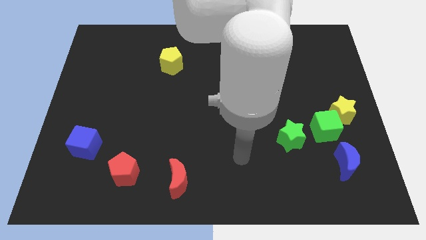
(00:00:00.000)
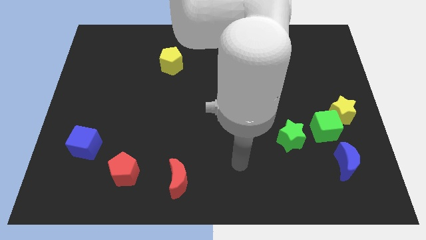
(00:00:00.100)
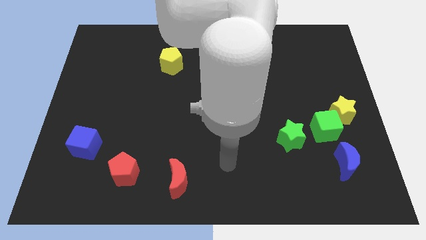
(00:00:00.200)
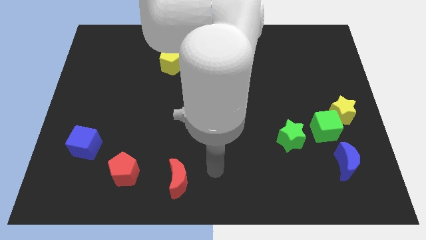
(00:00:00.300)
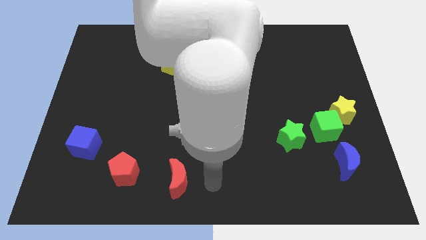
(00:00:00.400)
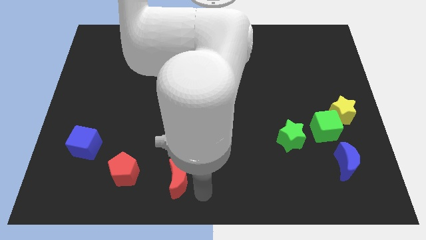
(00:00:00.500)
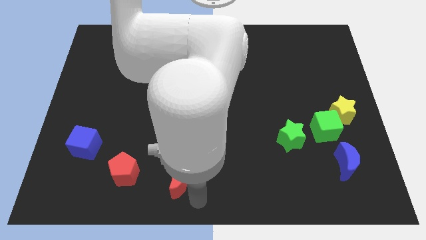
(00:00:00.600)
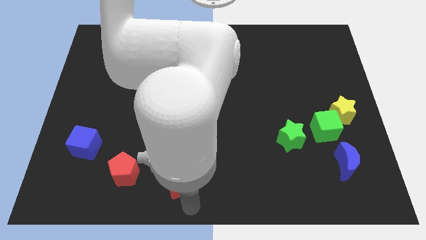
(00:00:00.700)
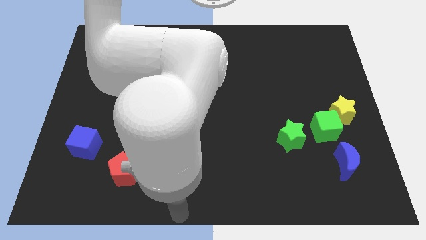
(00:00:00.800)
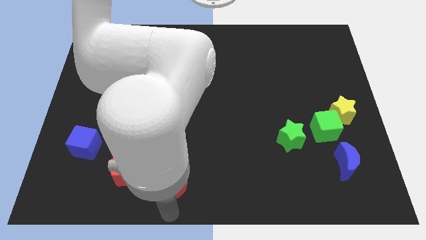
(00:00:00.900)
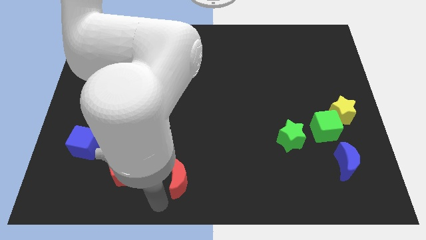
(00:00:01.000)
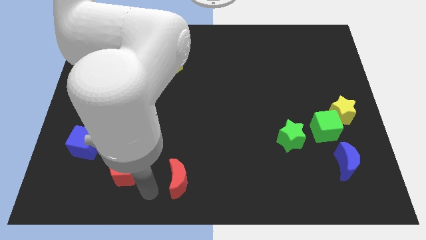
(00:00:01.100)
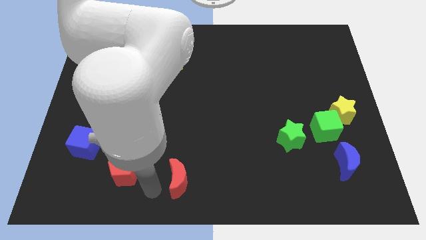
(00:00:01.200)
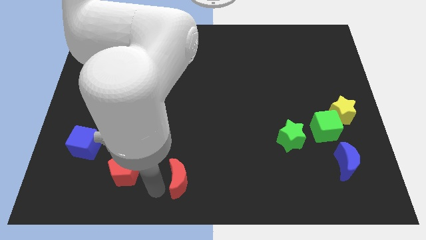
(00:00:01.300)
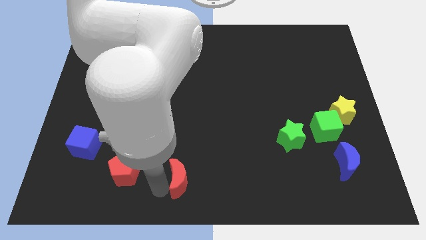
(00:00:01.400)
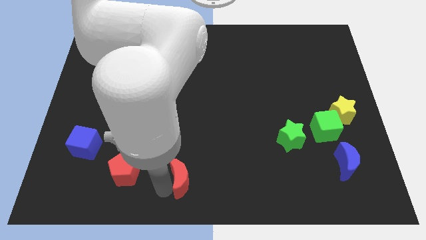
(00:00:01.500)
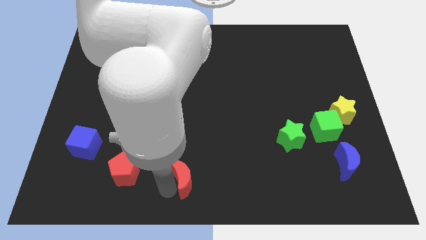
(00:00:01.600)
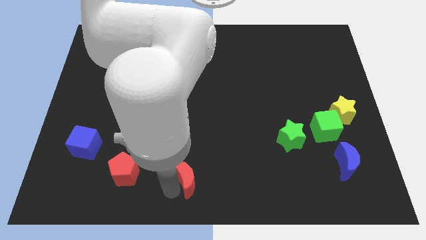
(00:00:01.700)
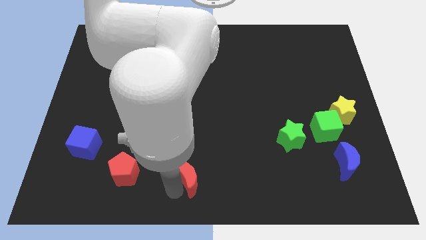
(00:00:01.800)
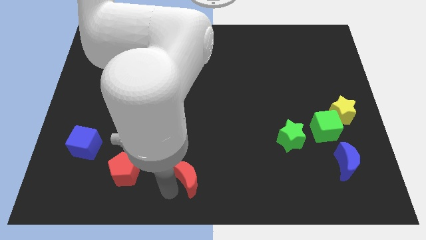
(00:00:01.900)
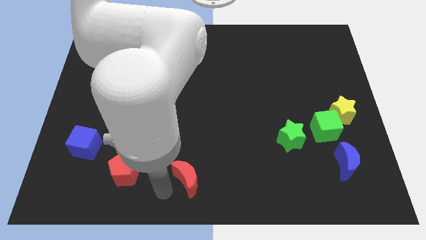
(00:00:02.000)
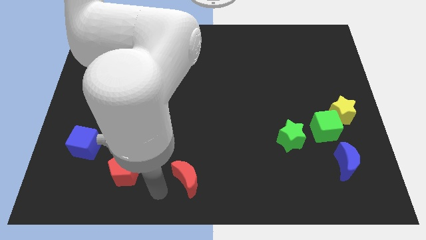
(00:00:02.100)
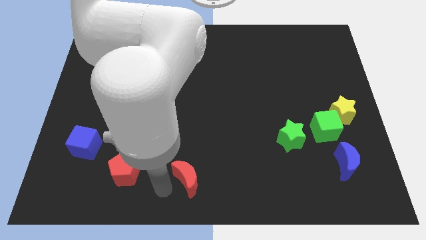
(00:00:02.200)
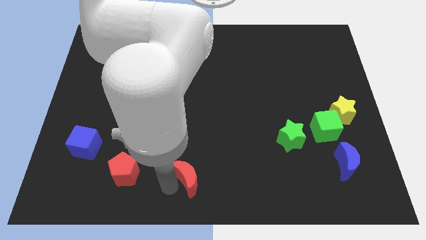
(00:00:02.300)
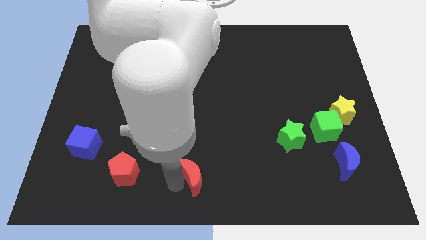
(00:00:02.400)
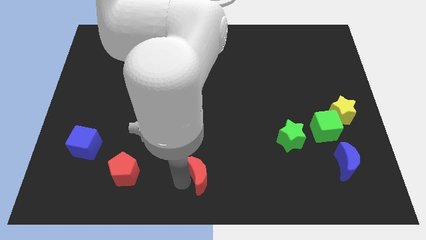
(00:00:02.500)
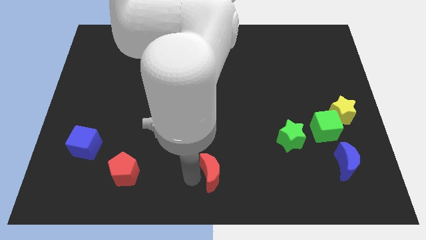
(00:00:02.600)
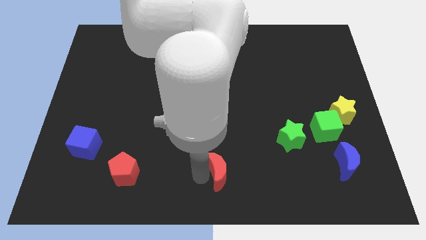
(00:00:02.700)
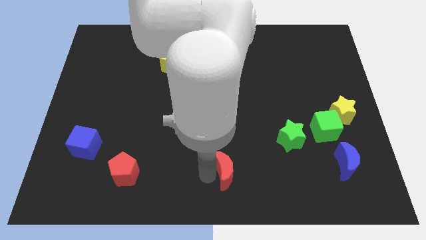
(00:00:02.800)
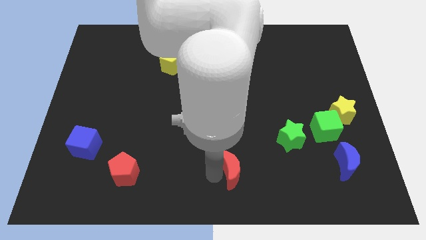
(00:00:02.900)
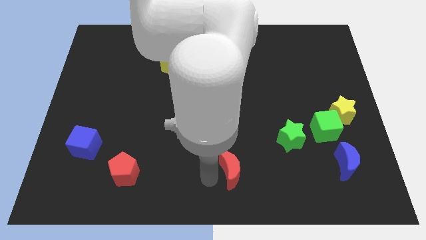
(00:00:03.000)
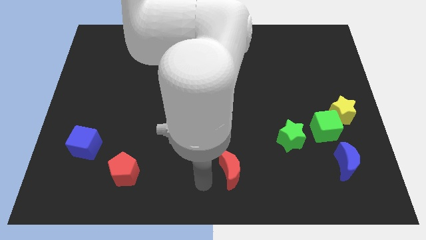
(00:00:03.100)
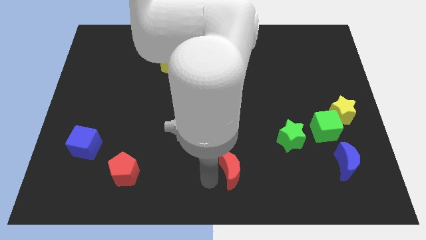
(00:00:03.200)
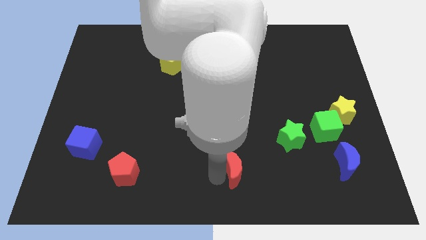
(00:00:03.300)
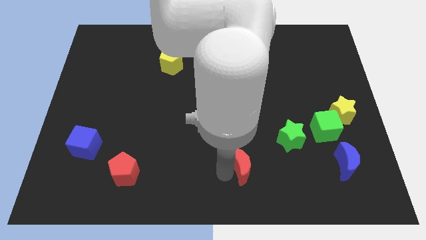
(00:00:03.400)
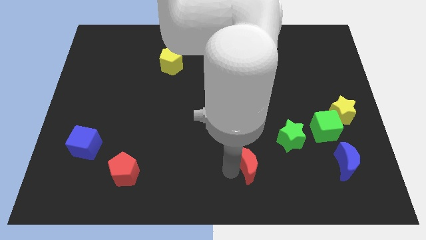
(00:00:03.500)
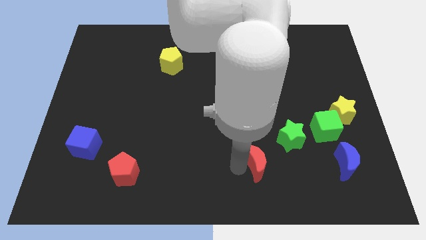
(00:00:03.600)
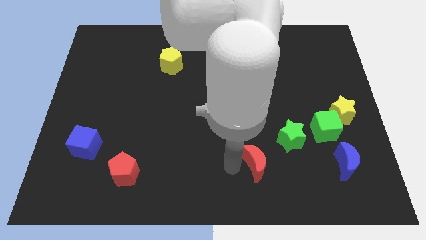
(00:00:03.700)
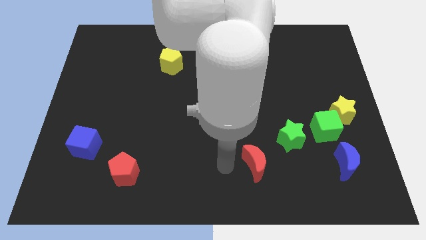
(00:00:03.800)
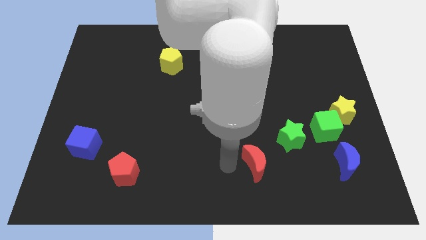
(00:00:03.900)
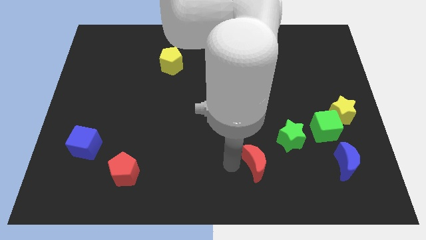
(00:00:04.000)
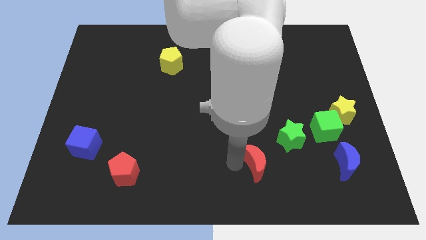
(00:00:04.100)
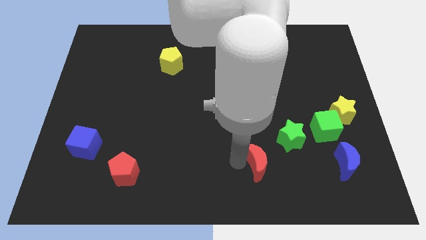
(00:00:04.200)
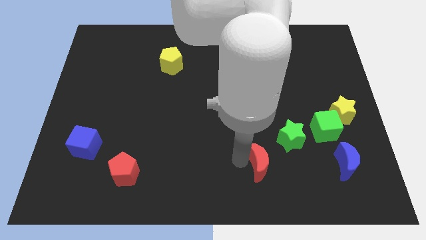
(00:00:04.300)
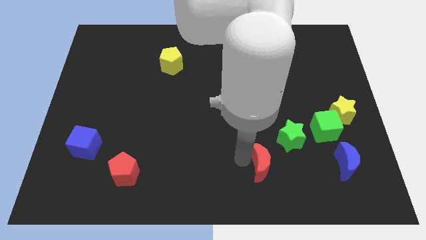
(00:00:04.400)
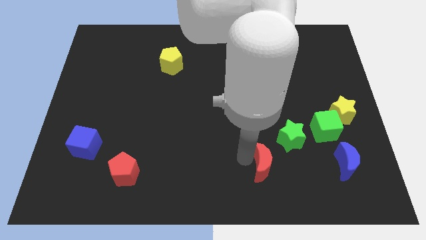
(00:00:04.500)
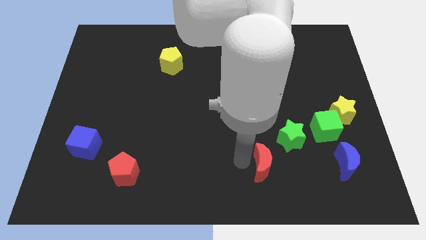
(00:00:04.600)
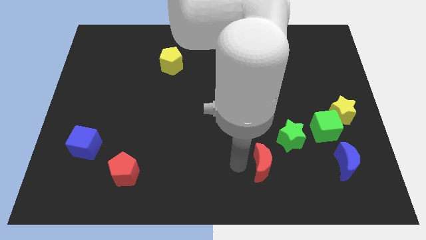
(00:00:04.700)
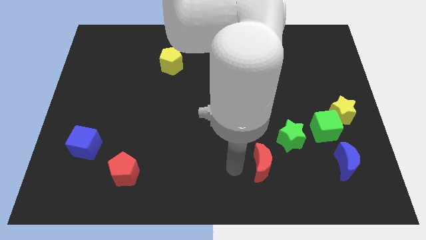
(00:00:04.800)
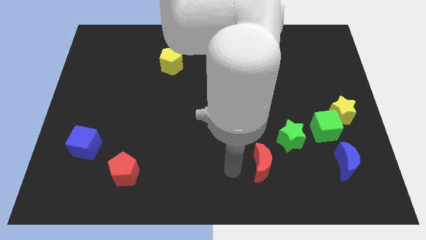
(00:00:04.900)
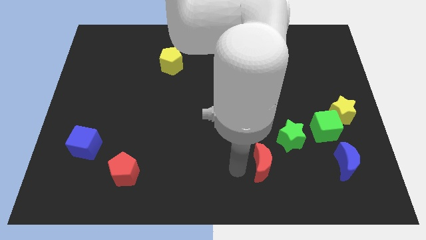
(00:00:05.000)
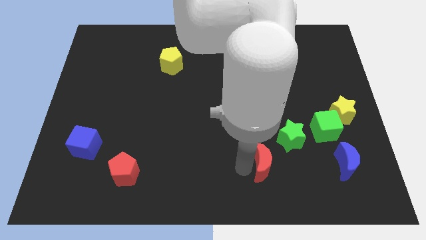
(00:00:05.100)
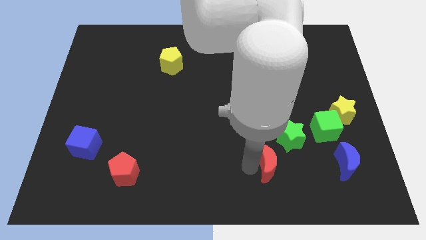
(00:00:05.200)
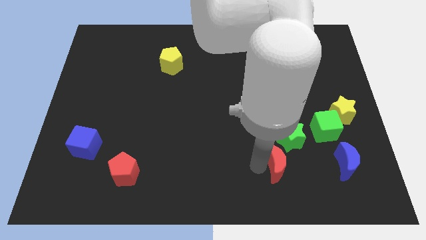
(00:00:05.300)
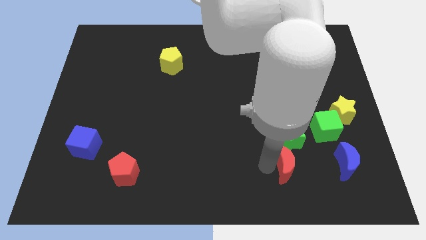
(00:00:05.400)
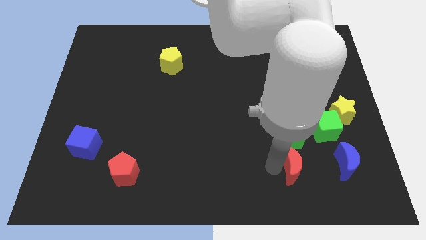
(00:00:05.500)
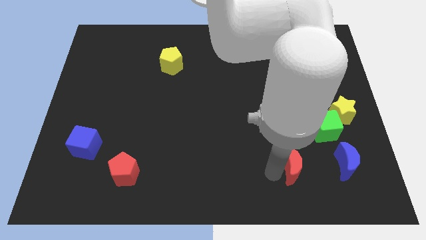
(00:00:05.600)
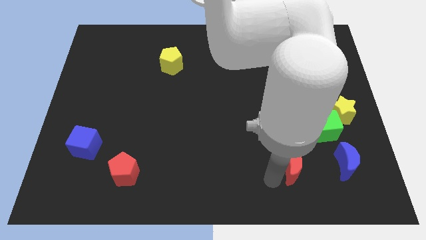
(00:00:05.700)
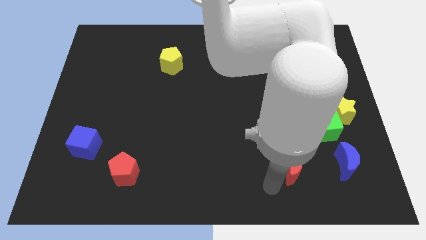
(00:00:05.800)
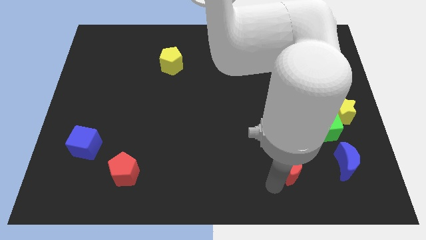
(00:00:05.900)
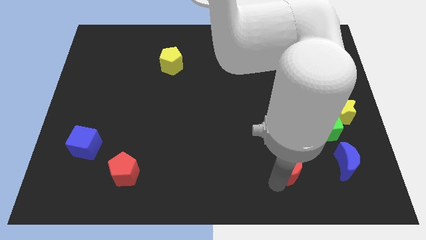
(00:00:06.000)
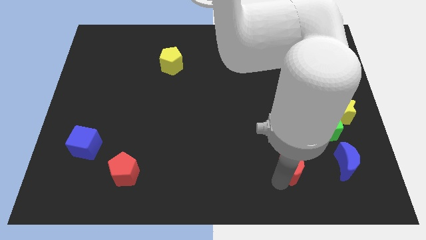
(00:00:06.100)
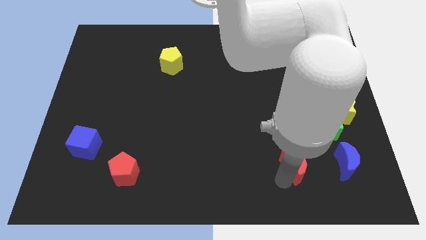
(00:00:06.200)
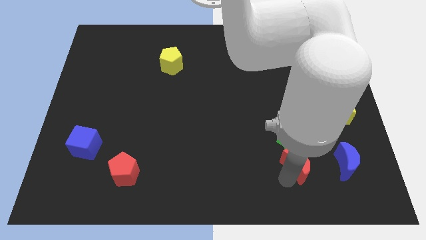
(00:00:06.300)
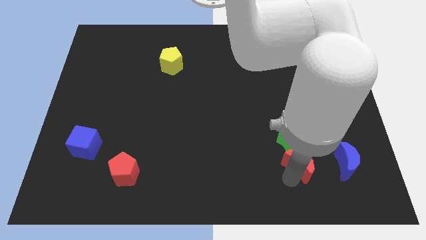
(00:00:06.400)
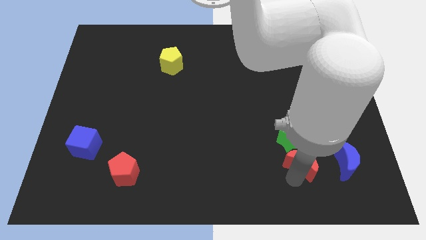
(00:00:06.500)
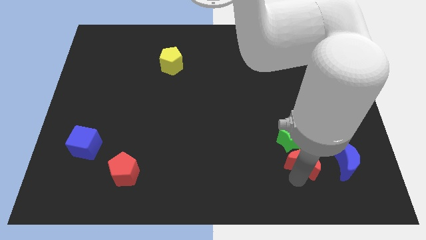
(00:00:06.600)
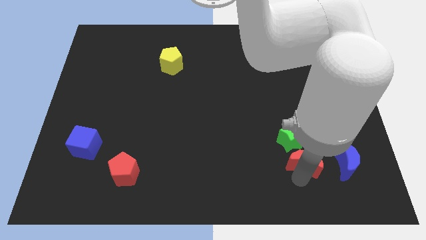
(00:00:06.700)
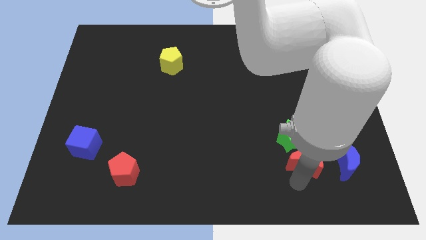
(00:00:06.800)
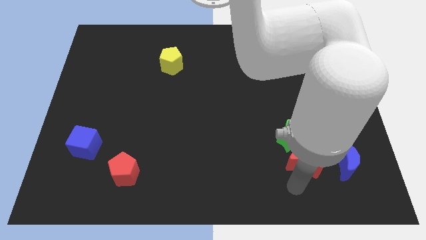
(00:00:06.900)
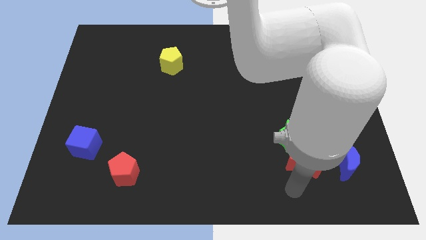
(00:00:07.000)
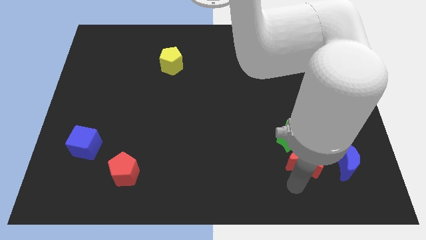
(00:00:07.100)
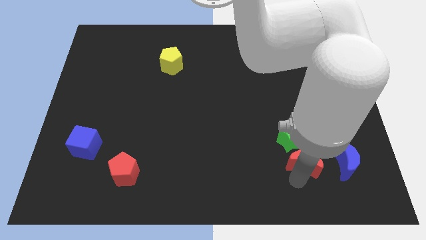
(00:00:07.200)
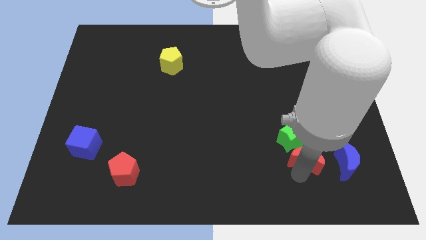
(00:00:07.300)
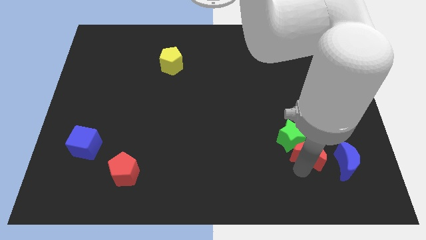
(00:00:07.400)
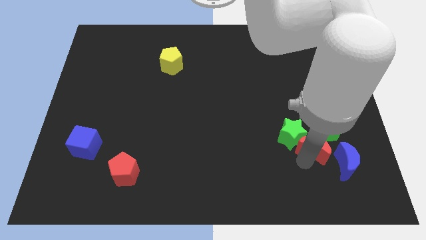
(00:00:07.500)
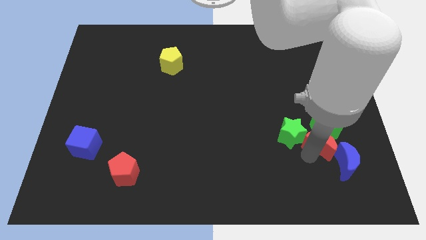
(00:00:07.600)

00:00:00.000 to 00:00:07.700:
push the red moon towards the green cube
